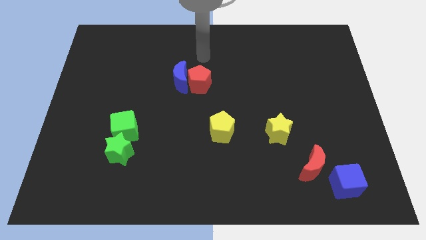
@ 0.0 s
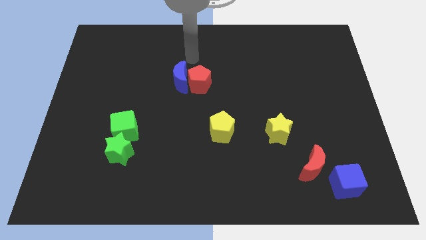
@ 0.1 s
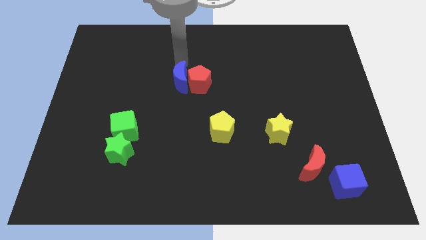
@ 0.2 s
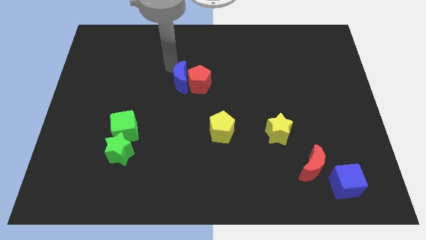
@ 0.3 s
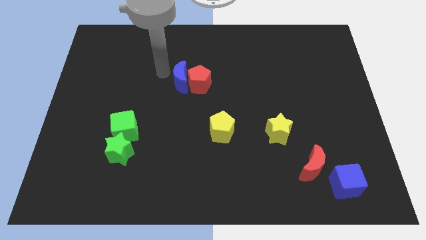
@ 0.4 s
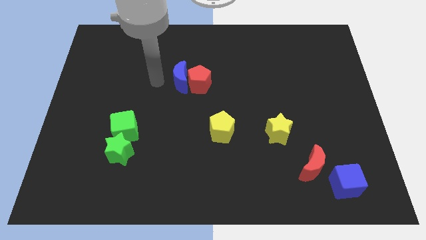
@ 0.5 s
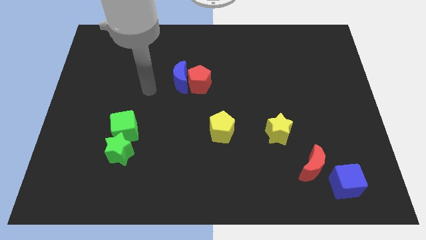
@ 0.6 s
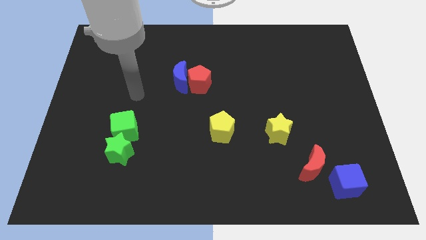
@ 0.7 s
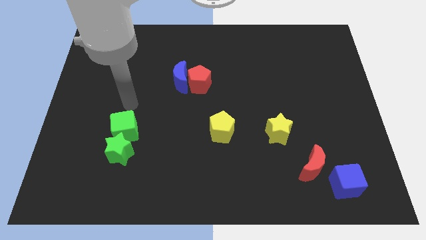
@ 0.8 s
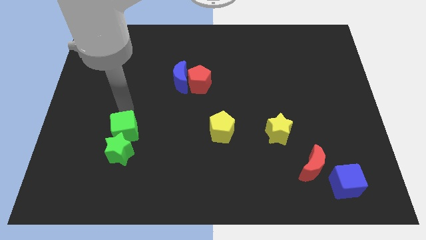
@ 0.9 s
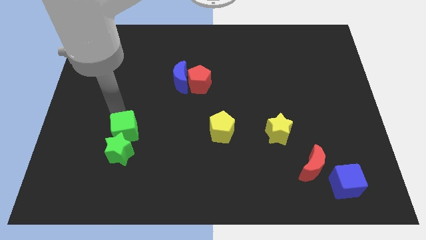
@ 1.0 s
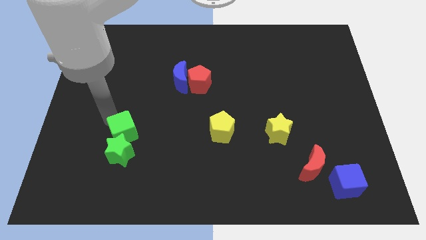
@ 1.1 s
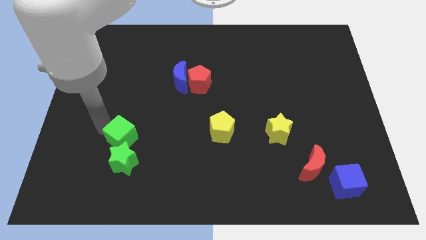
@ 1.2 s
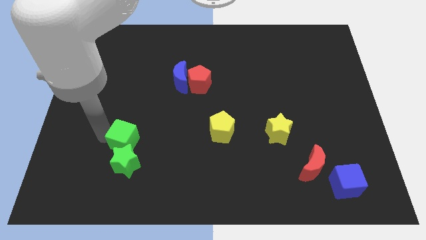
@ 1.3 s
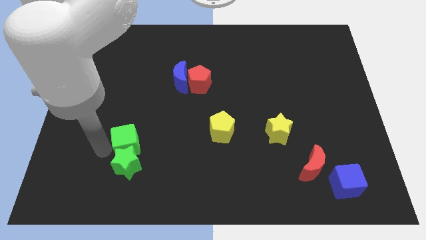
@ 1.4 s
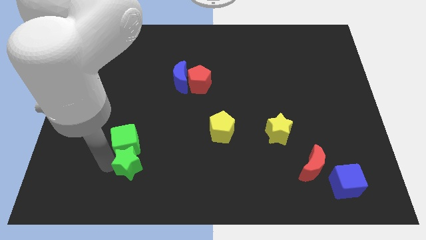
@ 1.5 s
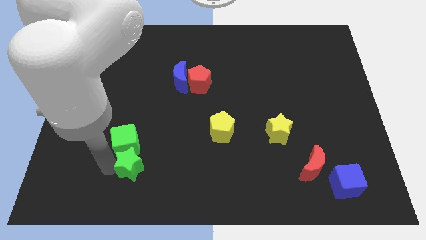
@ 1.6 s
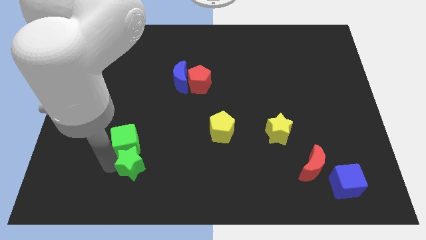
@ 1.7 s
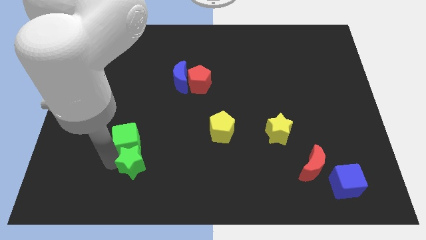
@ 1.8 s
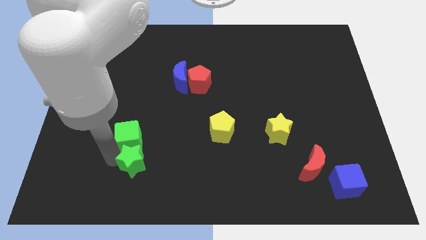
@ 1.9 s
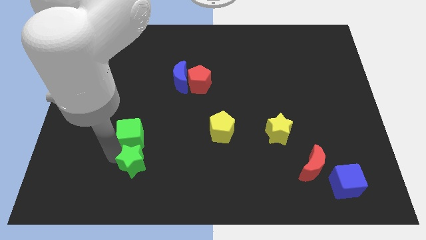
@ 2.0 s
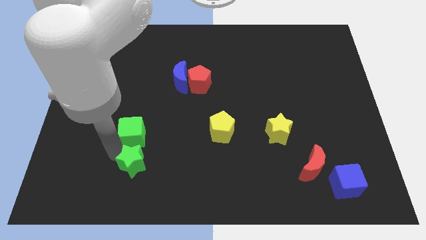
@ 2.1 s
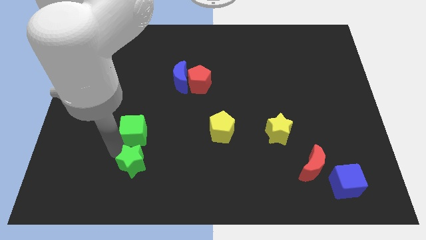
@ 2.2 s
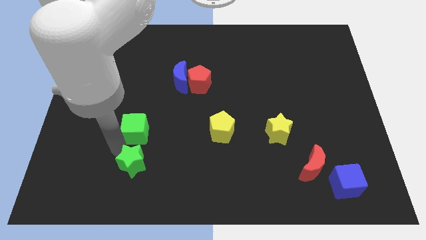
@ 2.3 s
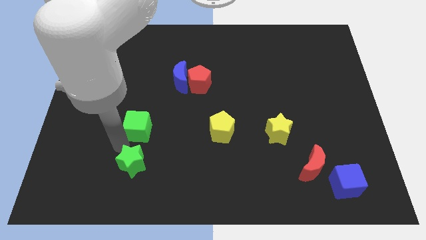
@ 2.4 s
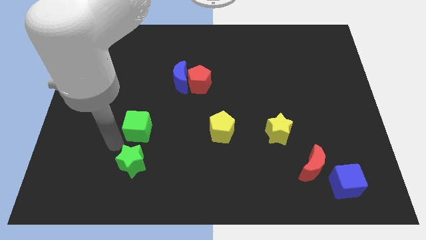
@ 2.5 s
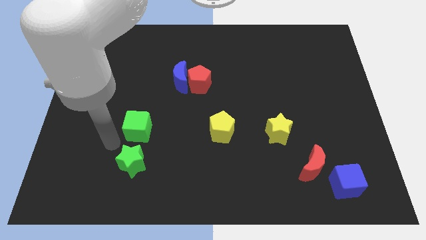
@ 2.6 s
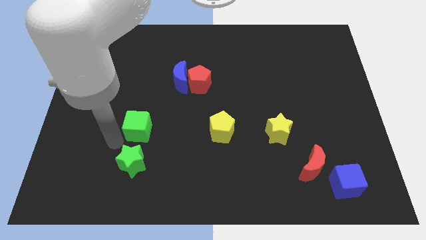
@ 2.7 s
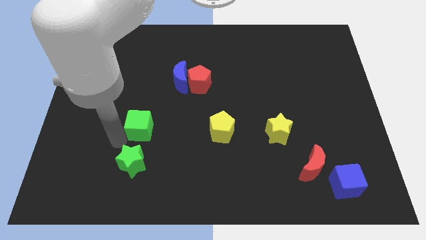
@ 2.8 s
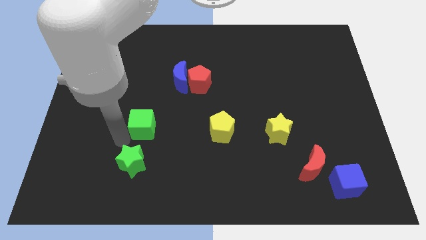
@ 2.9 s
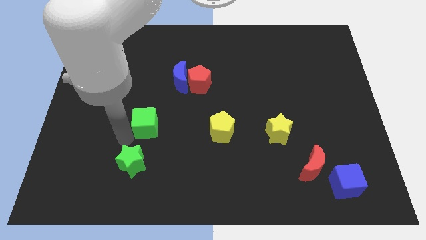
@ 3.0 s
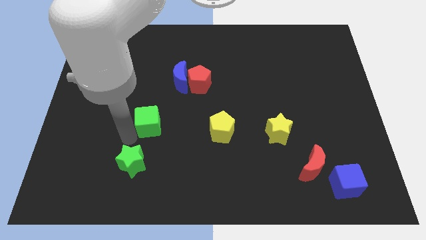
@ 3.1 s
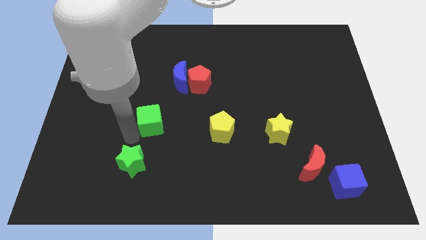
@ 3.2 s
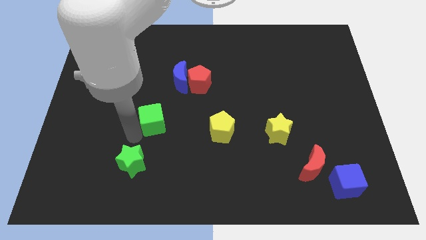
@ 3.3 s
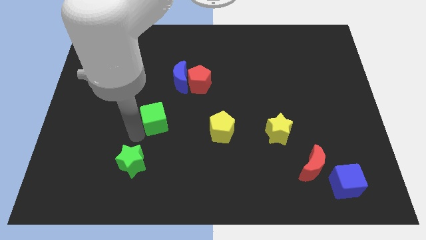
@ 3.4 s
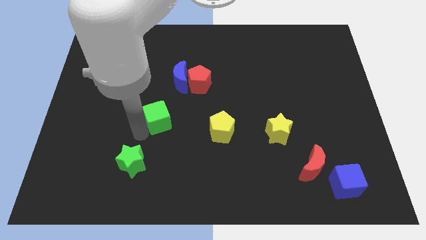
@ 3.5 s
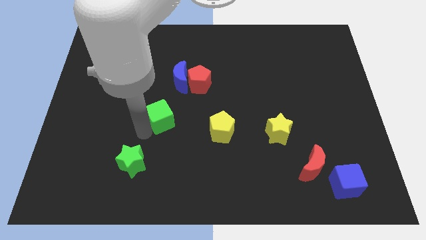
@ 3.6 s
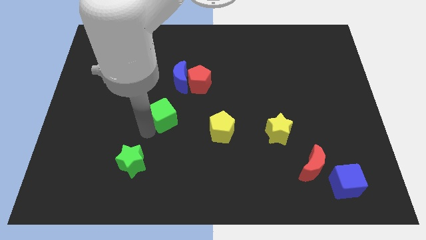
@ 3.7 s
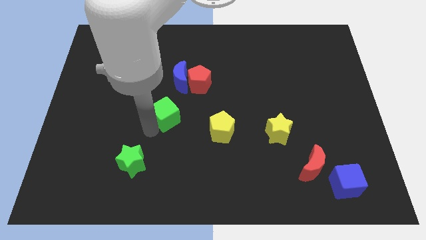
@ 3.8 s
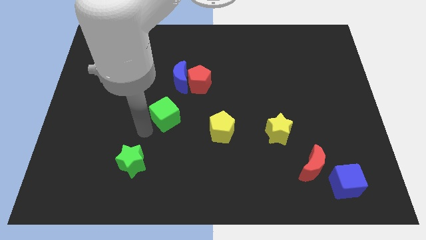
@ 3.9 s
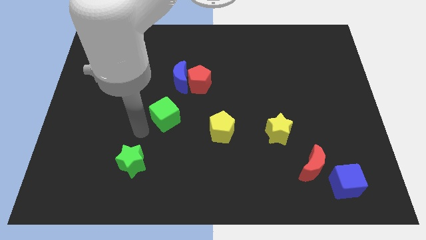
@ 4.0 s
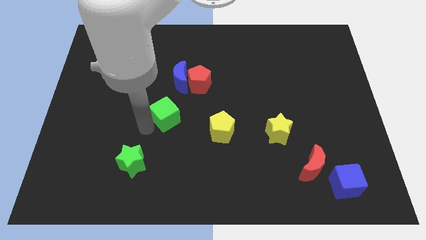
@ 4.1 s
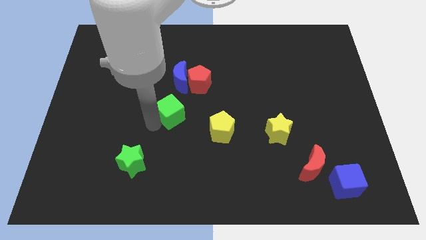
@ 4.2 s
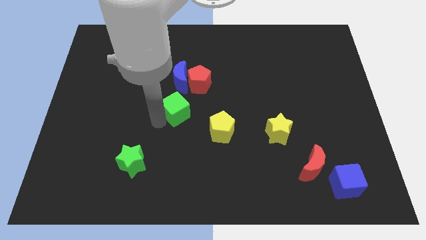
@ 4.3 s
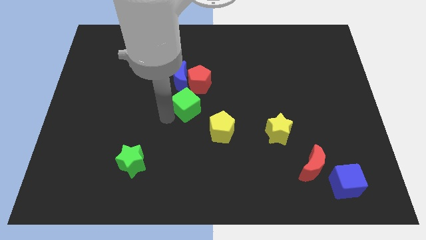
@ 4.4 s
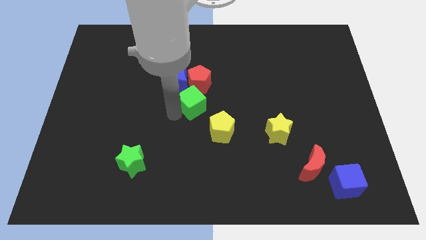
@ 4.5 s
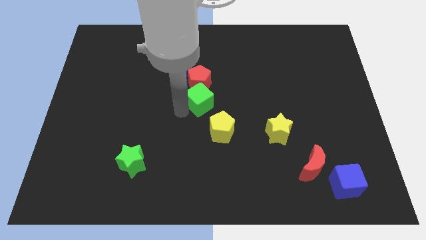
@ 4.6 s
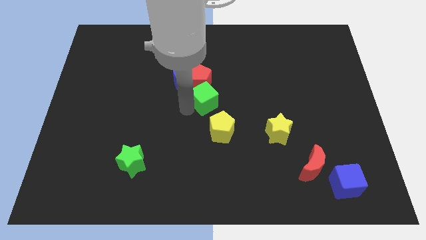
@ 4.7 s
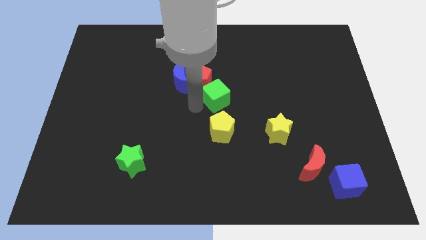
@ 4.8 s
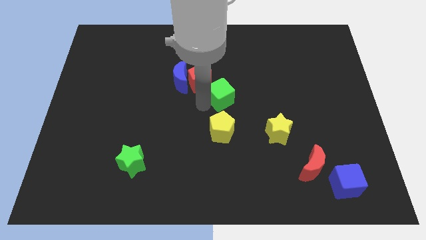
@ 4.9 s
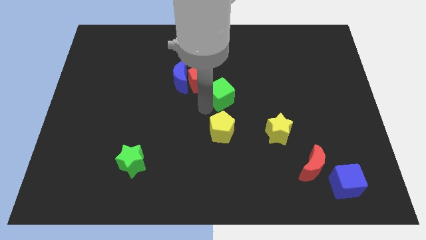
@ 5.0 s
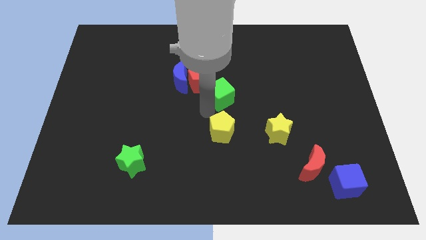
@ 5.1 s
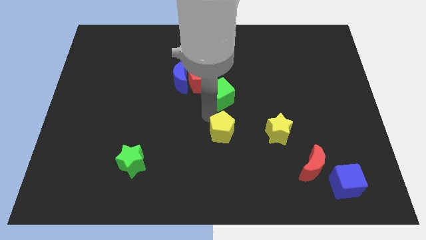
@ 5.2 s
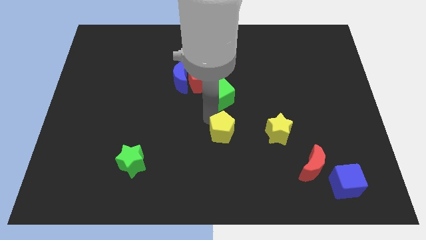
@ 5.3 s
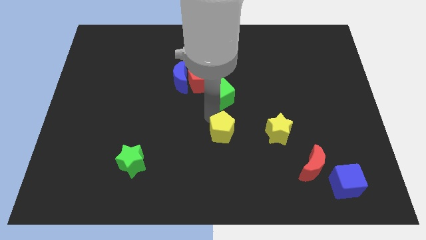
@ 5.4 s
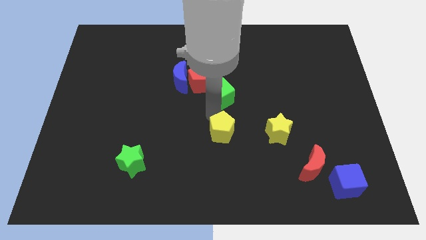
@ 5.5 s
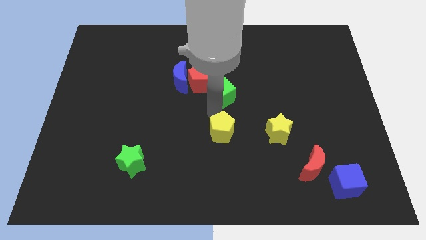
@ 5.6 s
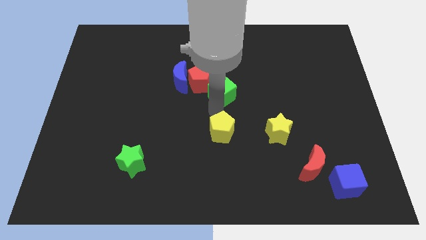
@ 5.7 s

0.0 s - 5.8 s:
push the green cube up and right diagonally

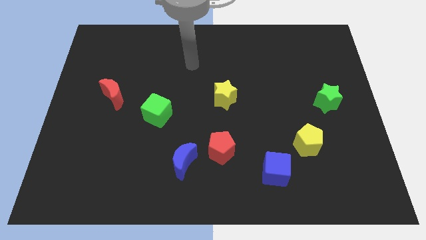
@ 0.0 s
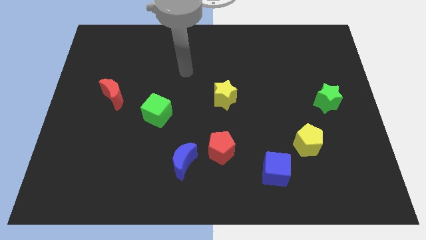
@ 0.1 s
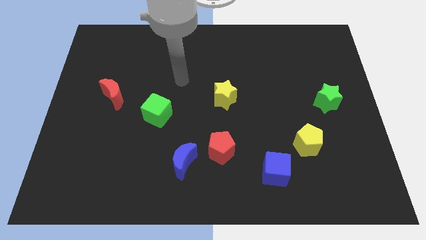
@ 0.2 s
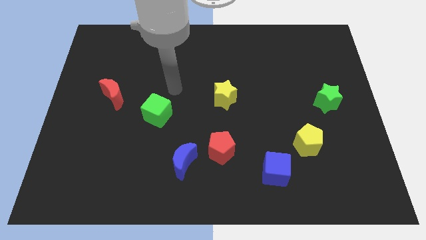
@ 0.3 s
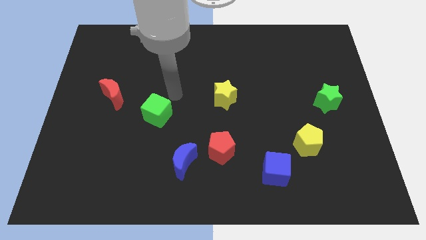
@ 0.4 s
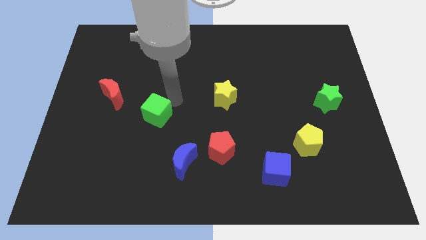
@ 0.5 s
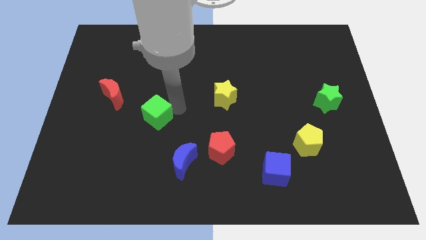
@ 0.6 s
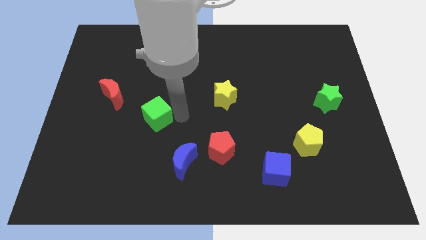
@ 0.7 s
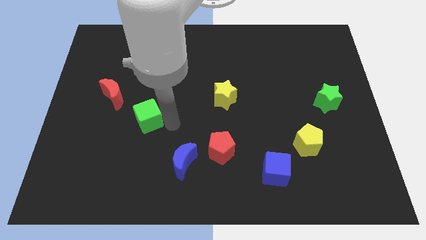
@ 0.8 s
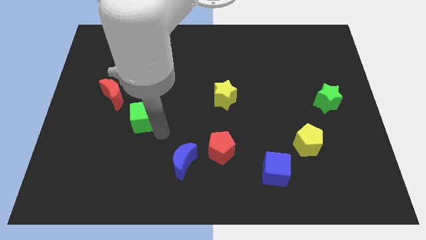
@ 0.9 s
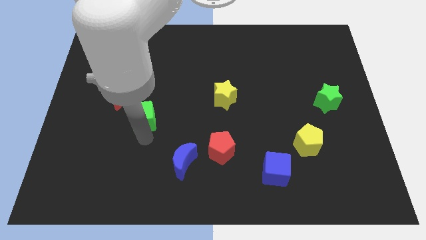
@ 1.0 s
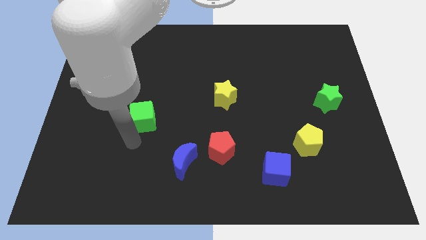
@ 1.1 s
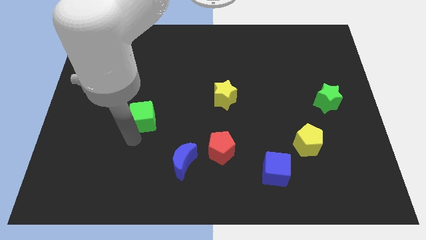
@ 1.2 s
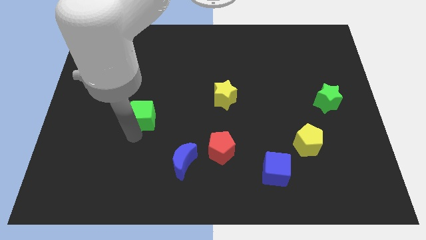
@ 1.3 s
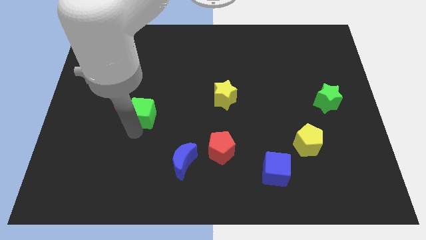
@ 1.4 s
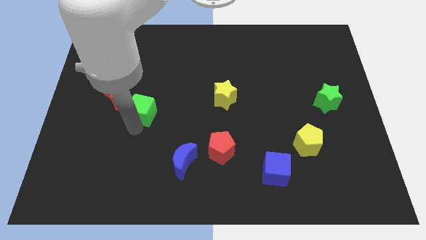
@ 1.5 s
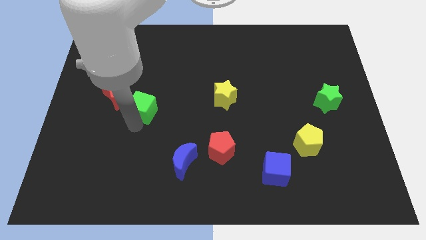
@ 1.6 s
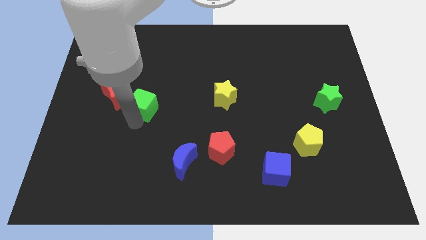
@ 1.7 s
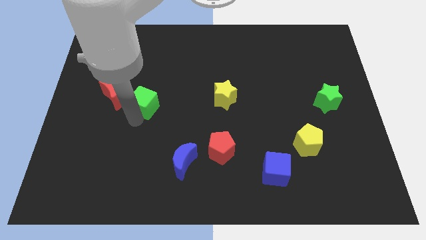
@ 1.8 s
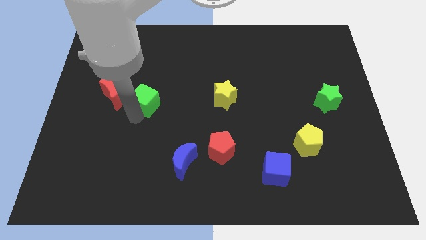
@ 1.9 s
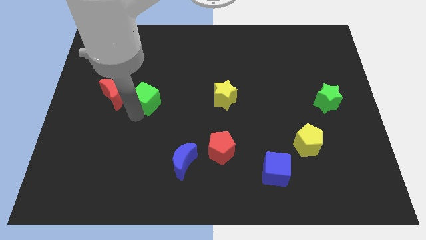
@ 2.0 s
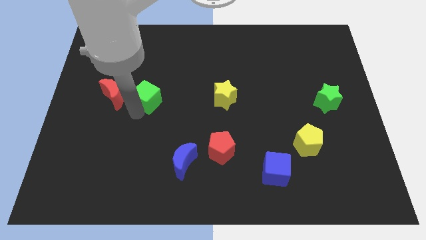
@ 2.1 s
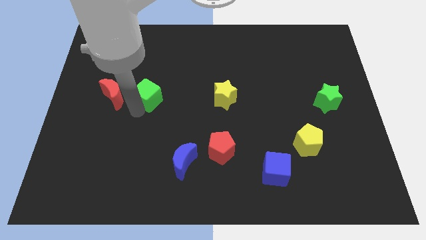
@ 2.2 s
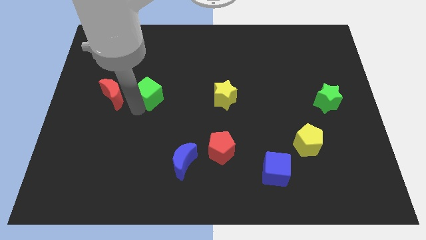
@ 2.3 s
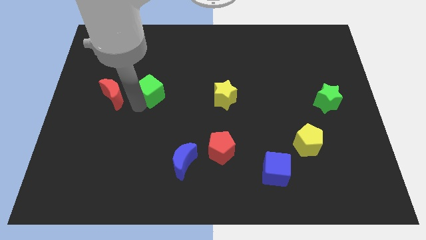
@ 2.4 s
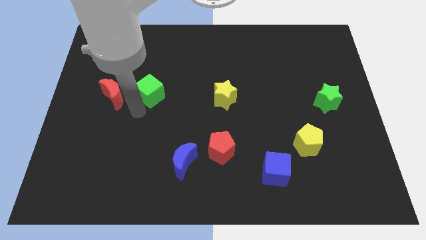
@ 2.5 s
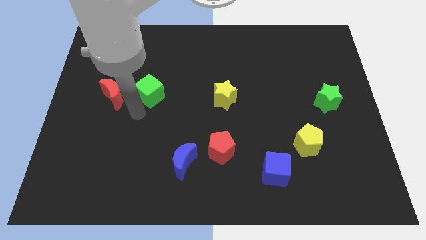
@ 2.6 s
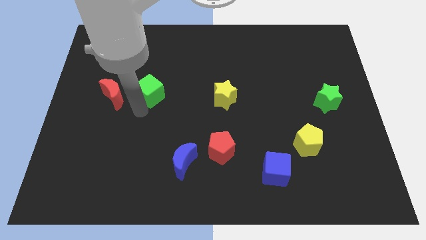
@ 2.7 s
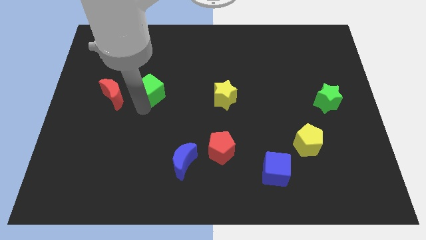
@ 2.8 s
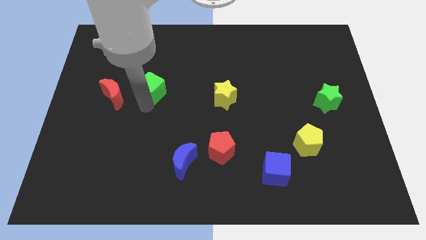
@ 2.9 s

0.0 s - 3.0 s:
slightly move the green cube upwards
